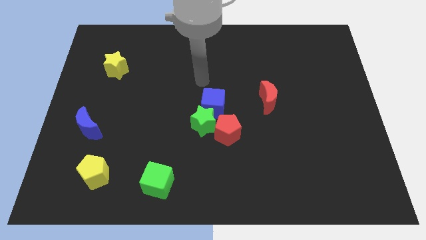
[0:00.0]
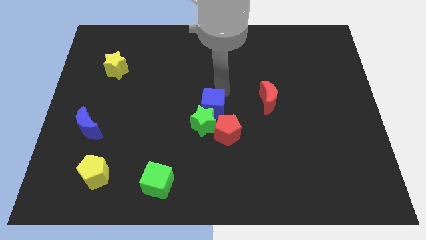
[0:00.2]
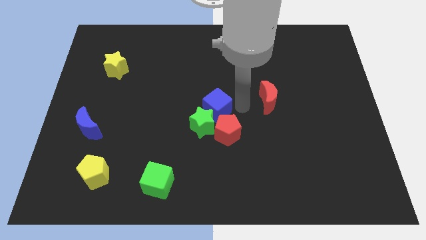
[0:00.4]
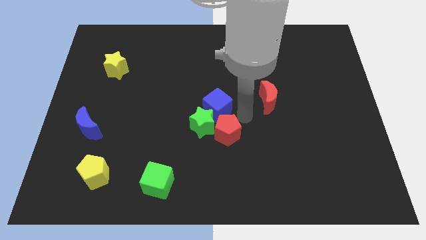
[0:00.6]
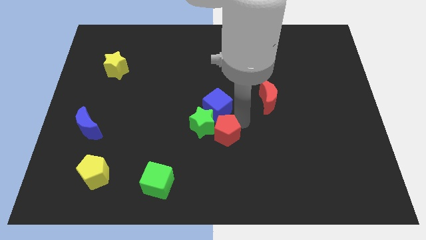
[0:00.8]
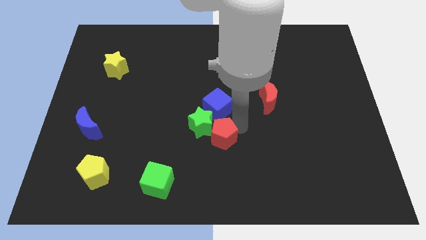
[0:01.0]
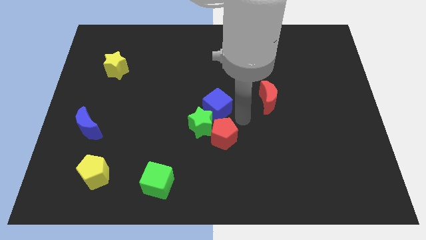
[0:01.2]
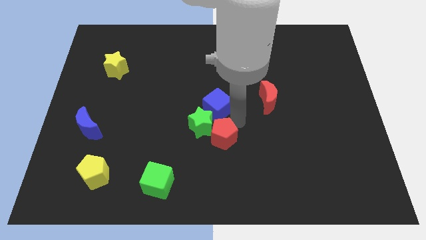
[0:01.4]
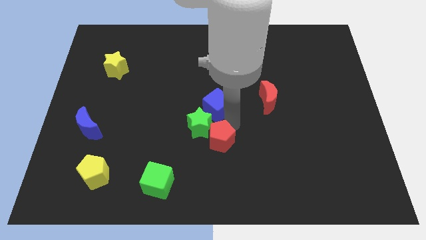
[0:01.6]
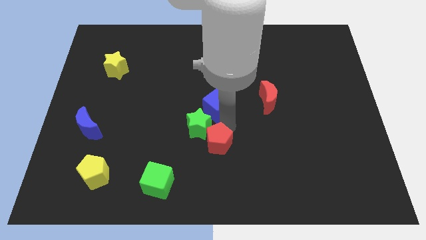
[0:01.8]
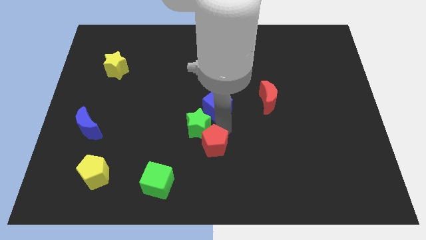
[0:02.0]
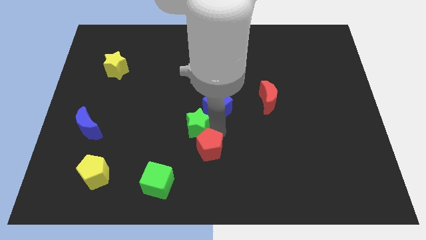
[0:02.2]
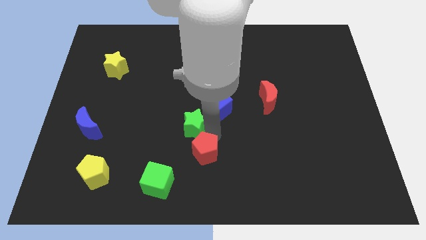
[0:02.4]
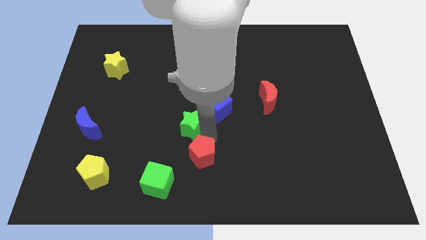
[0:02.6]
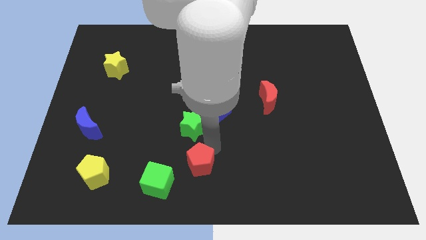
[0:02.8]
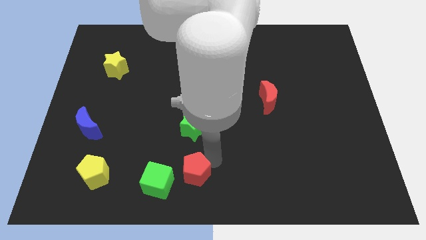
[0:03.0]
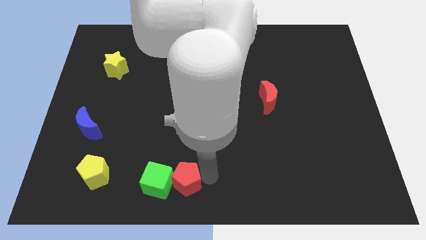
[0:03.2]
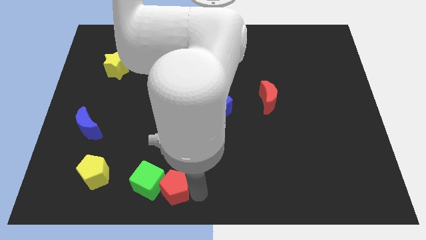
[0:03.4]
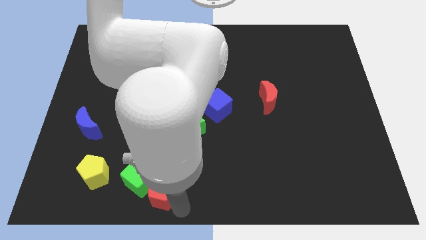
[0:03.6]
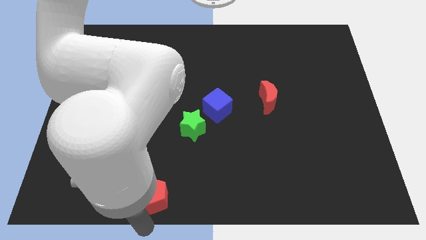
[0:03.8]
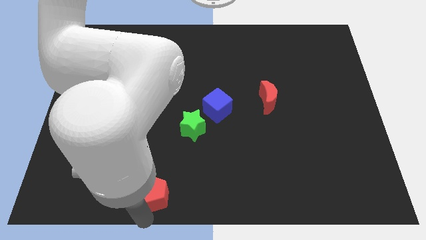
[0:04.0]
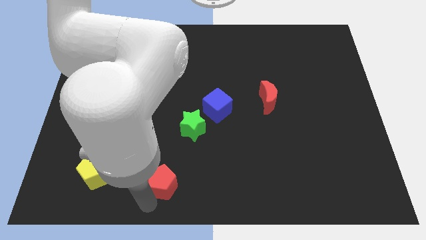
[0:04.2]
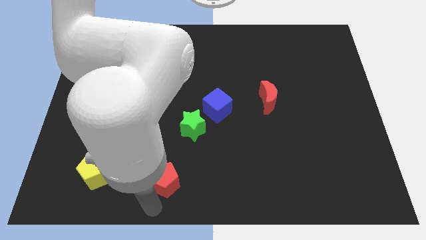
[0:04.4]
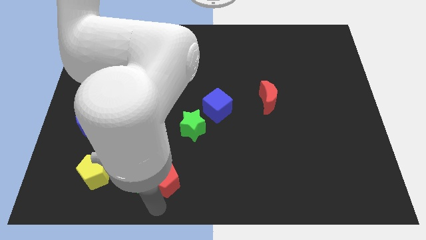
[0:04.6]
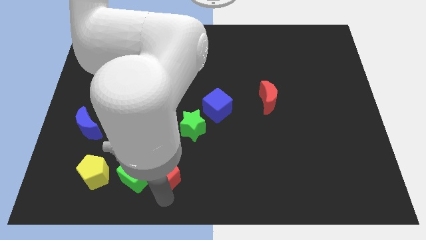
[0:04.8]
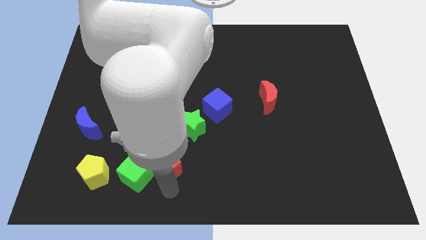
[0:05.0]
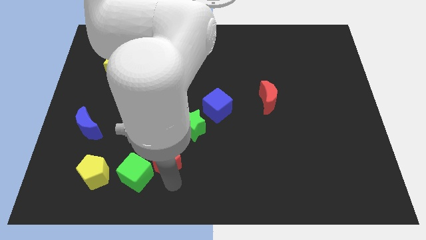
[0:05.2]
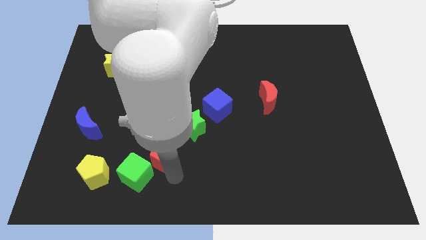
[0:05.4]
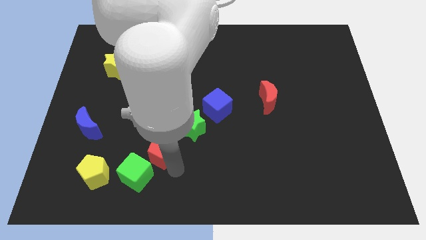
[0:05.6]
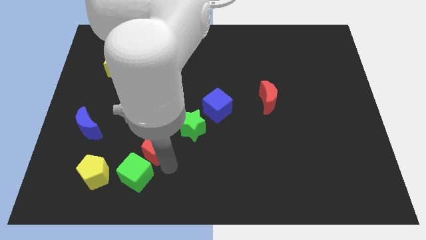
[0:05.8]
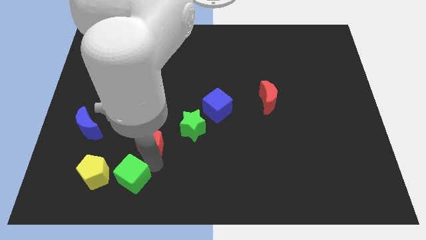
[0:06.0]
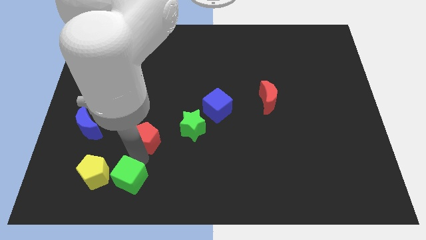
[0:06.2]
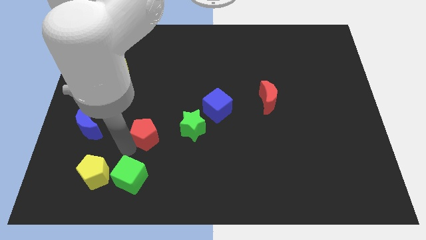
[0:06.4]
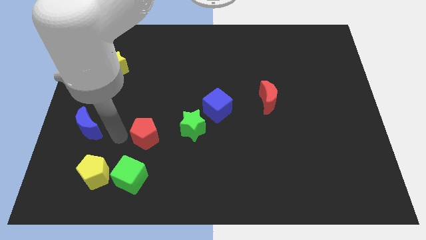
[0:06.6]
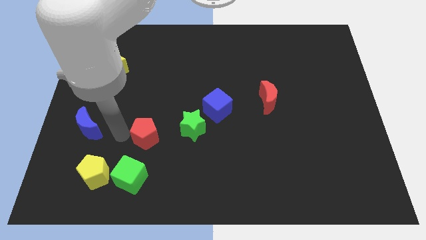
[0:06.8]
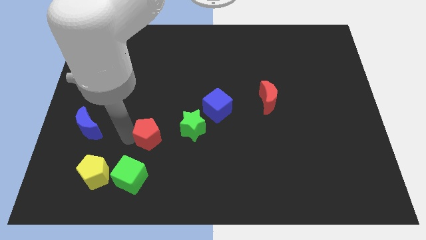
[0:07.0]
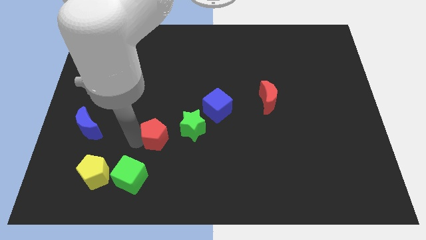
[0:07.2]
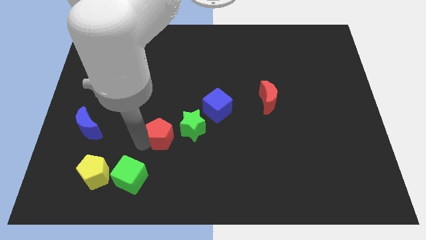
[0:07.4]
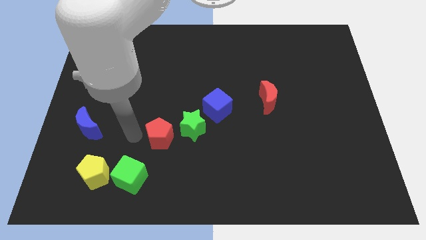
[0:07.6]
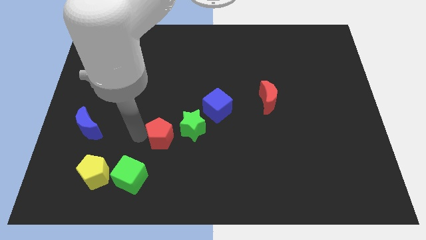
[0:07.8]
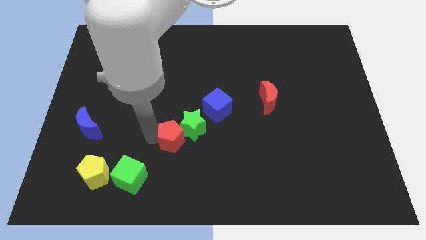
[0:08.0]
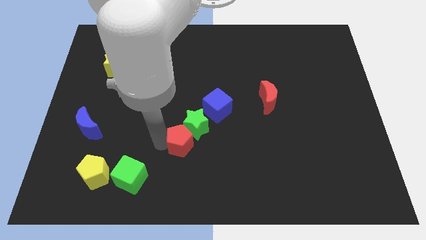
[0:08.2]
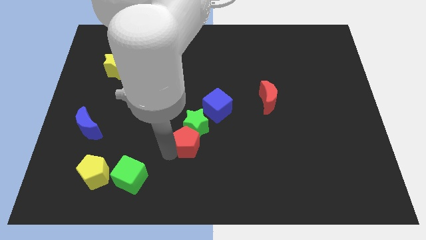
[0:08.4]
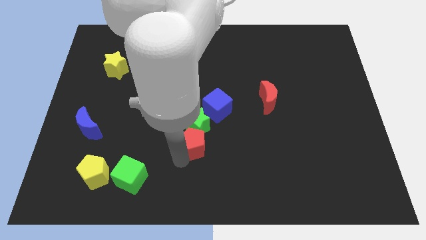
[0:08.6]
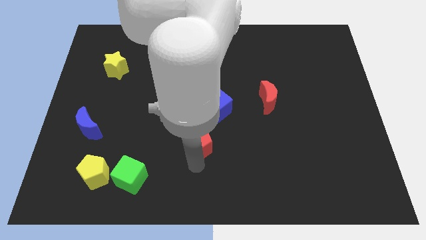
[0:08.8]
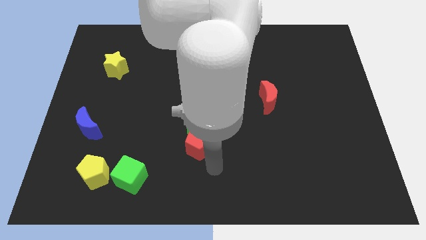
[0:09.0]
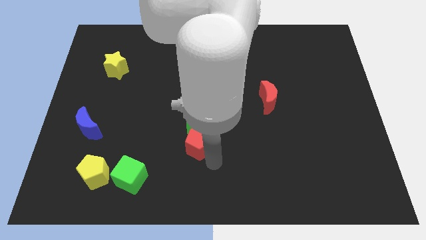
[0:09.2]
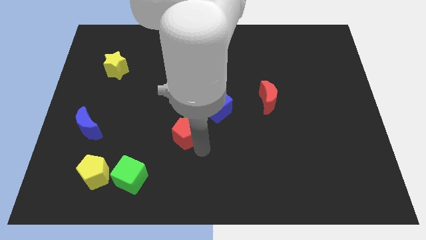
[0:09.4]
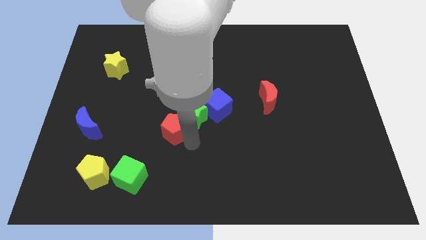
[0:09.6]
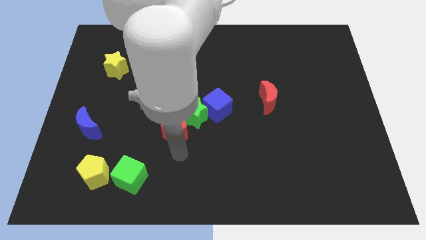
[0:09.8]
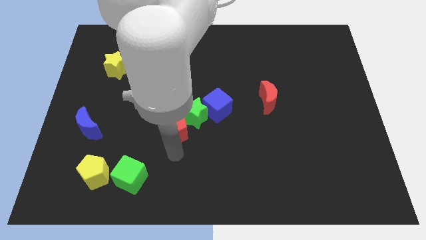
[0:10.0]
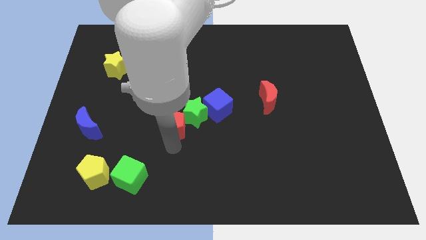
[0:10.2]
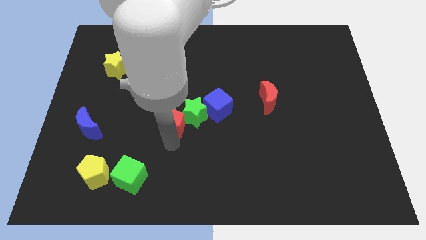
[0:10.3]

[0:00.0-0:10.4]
slide the red pentagon somewhat up and then to the left

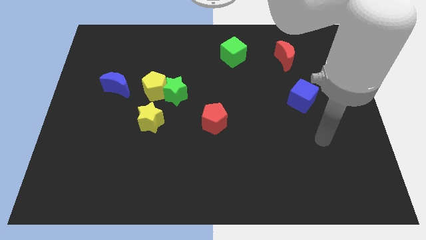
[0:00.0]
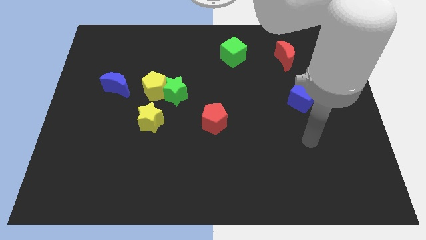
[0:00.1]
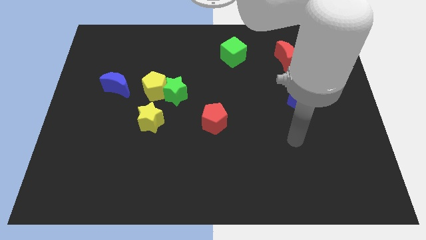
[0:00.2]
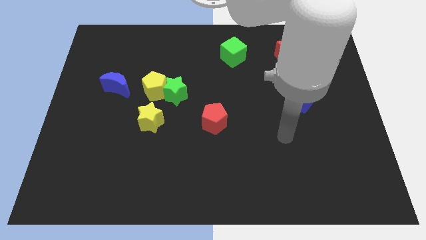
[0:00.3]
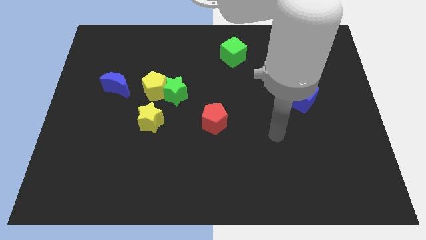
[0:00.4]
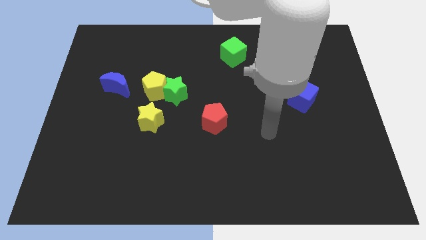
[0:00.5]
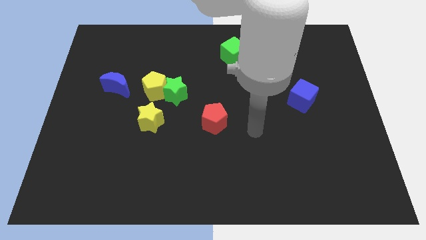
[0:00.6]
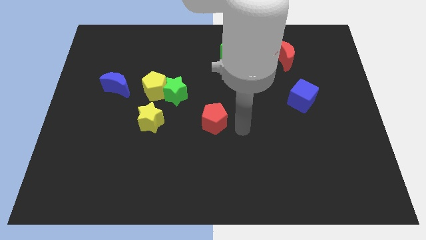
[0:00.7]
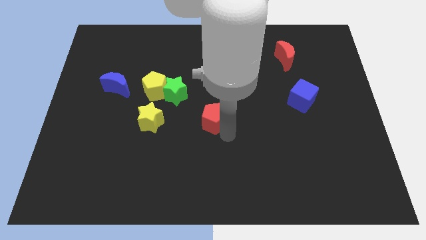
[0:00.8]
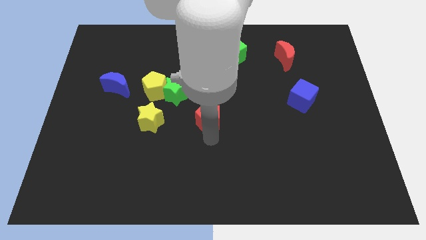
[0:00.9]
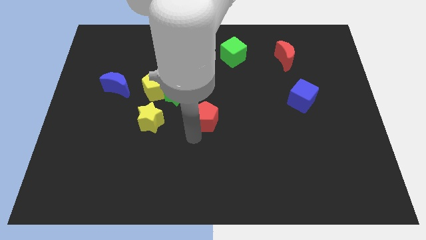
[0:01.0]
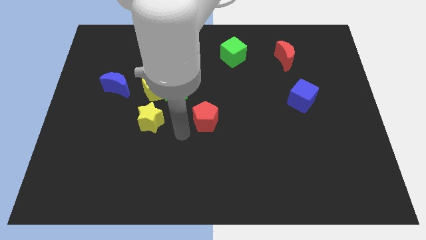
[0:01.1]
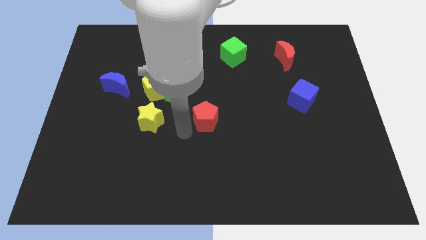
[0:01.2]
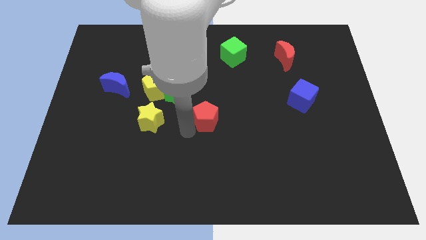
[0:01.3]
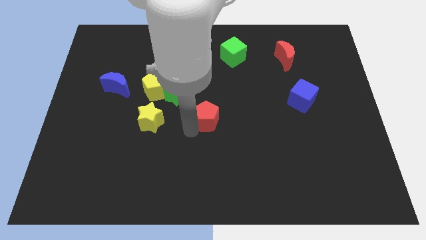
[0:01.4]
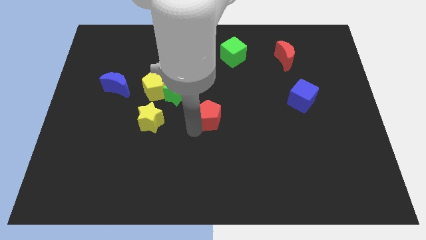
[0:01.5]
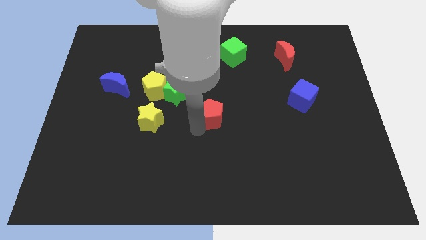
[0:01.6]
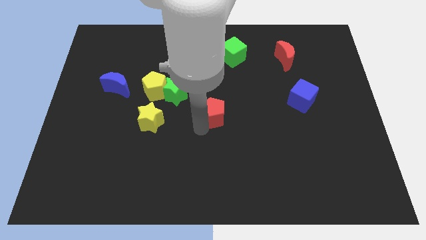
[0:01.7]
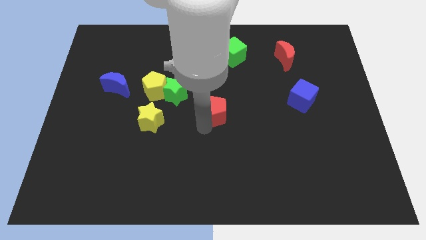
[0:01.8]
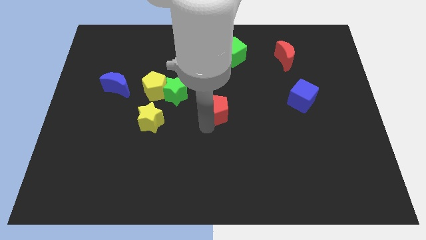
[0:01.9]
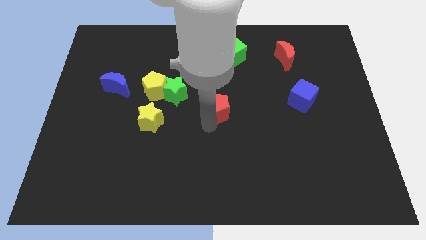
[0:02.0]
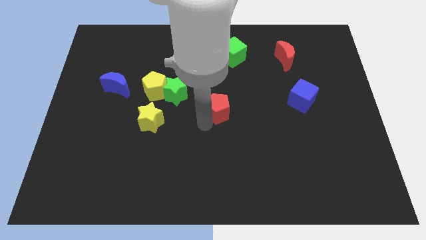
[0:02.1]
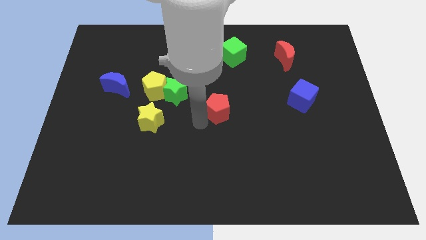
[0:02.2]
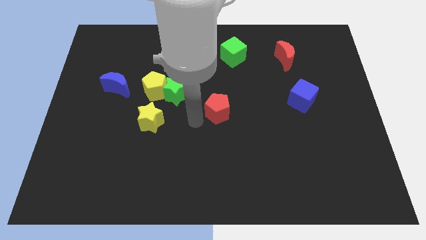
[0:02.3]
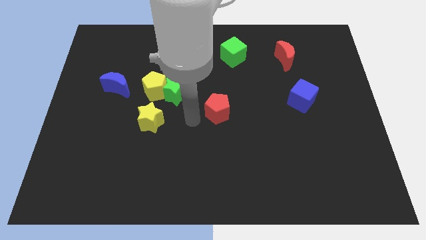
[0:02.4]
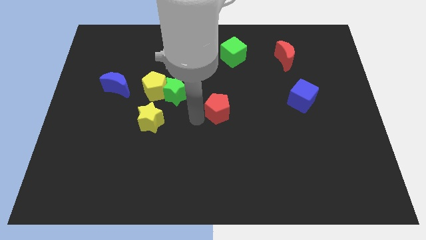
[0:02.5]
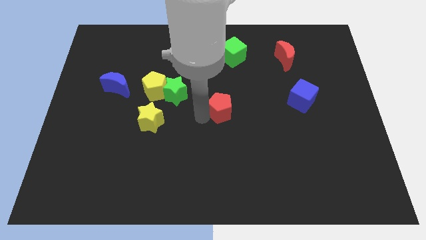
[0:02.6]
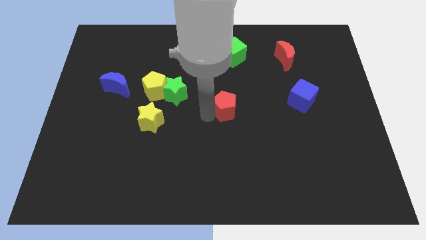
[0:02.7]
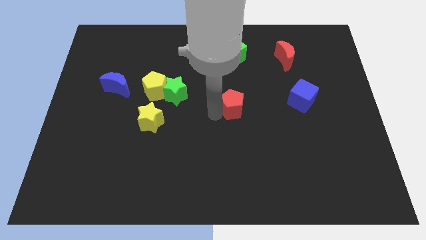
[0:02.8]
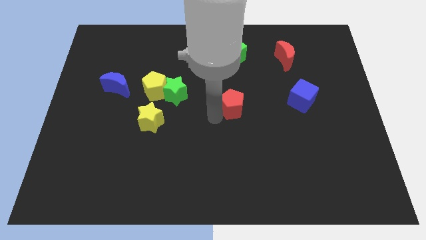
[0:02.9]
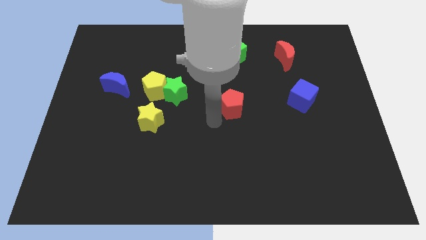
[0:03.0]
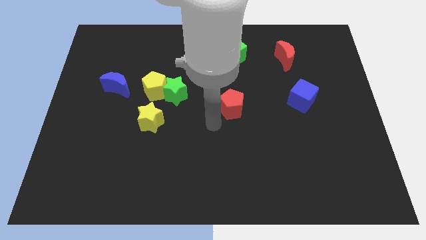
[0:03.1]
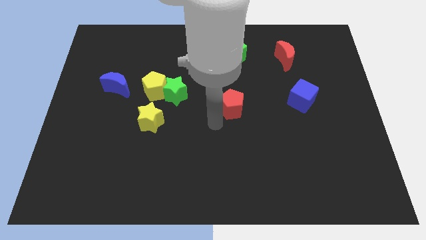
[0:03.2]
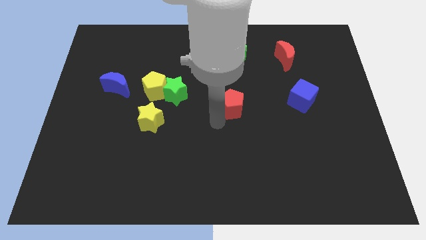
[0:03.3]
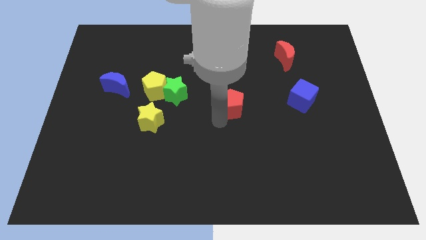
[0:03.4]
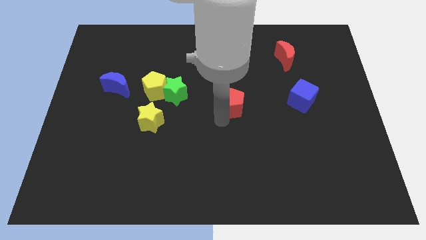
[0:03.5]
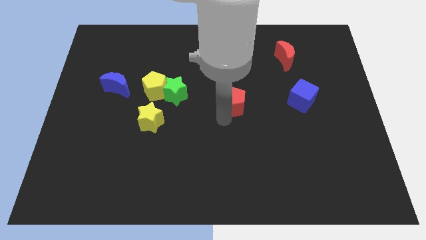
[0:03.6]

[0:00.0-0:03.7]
push the red pentagon diagonally up and right a little bit
